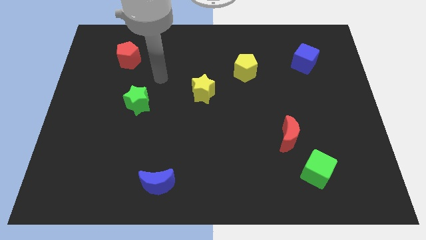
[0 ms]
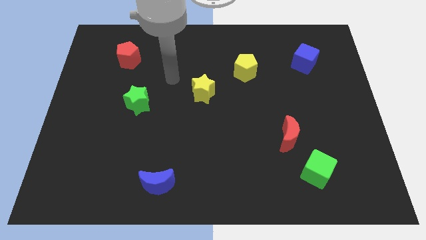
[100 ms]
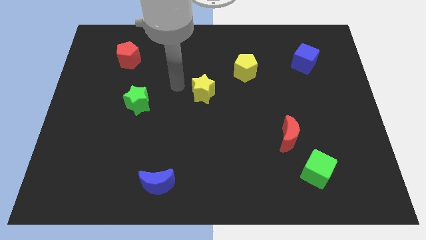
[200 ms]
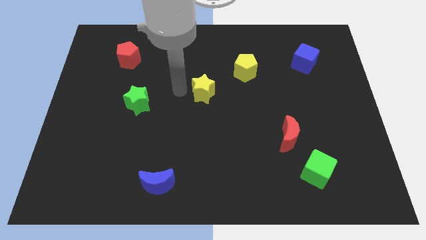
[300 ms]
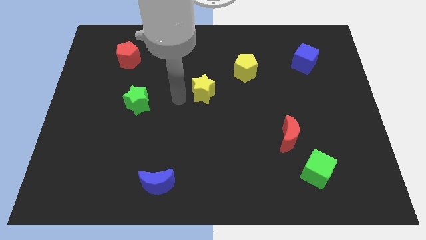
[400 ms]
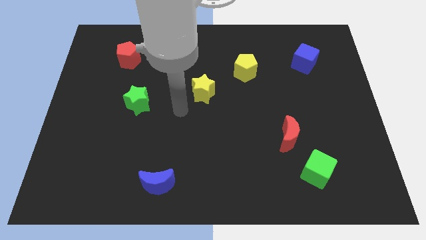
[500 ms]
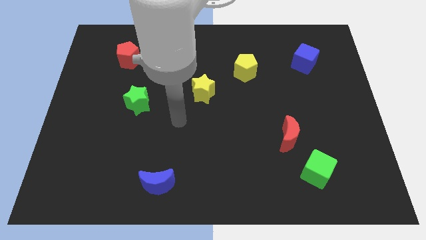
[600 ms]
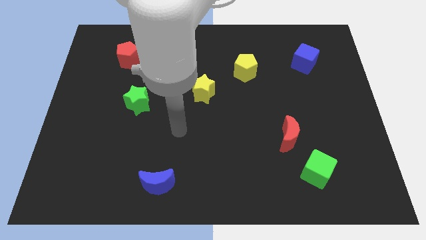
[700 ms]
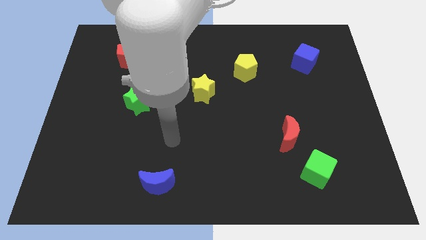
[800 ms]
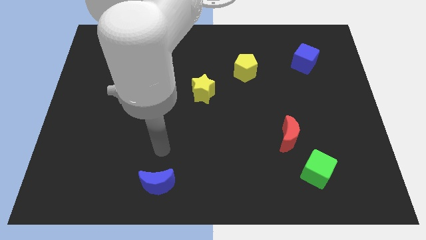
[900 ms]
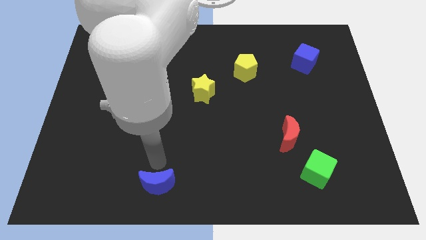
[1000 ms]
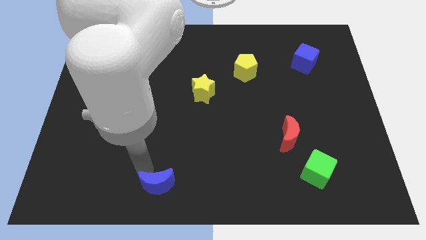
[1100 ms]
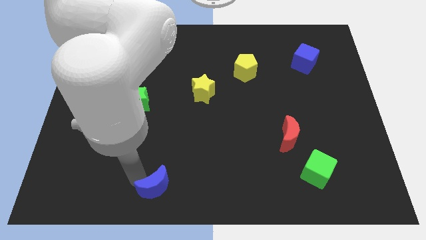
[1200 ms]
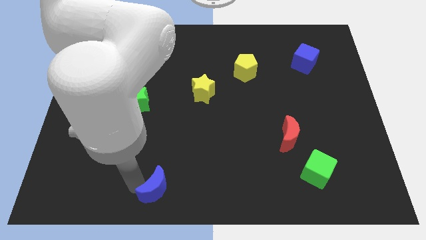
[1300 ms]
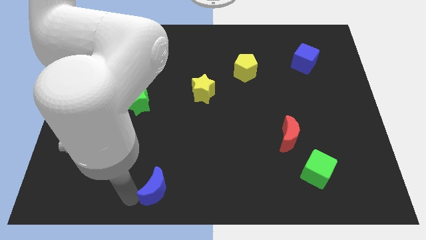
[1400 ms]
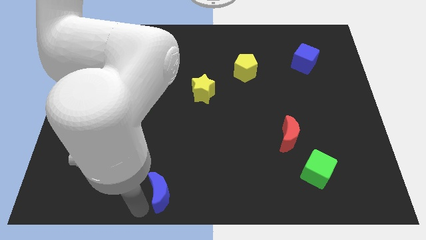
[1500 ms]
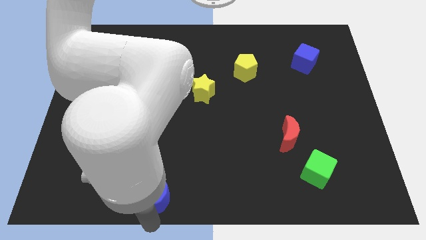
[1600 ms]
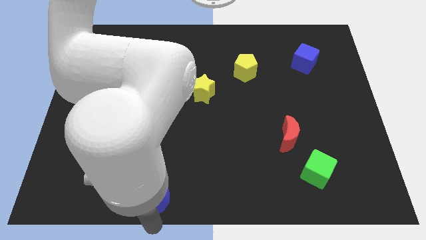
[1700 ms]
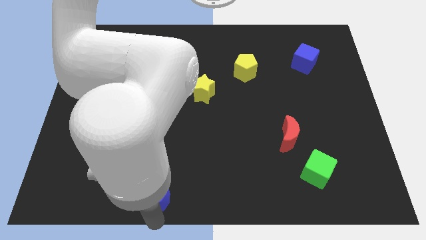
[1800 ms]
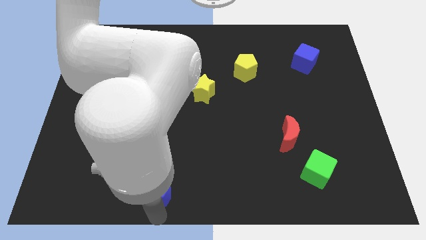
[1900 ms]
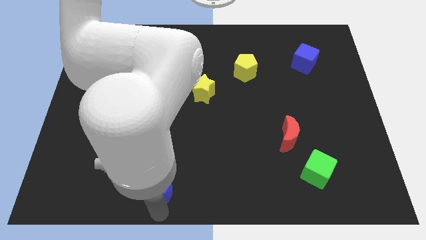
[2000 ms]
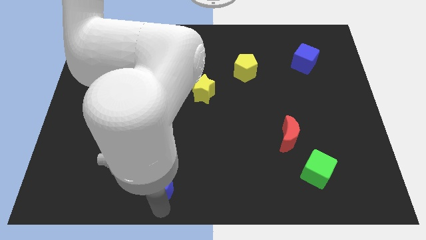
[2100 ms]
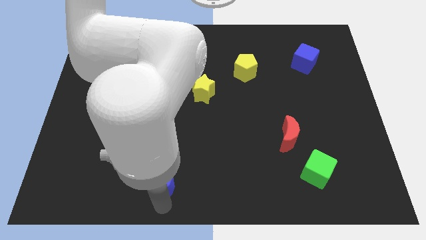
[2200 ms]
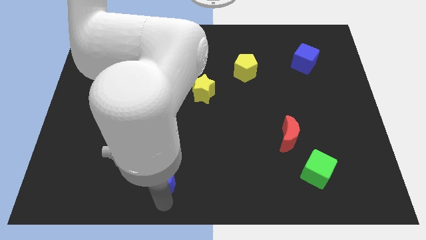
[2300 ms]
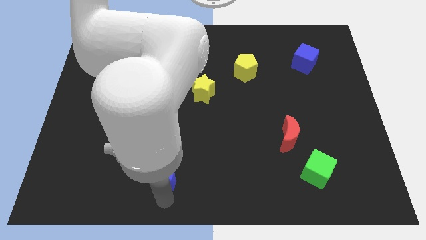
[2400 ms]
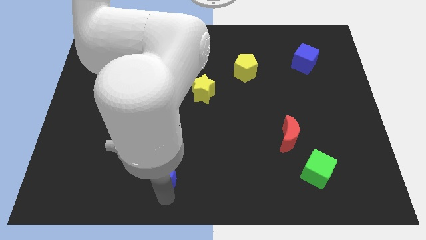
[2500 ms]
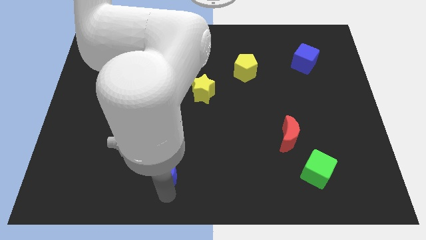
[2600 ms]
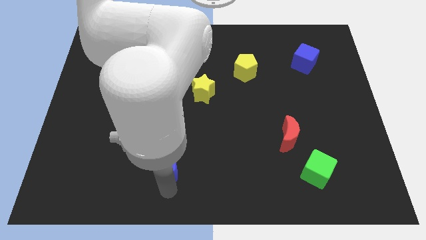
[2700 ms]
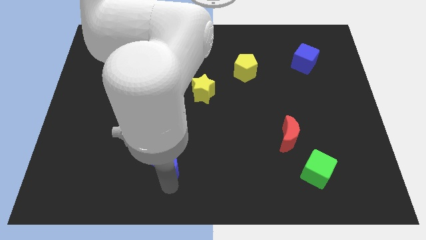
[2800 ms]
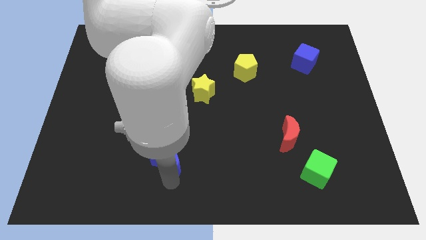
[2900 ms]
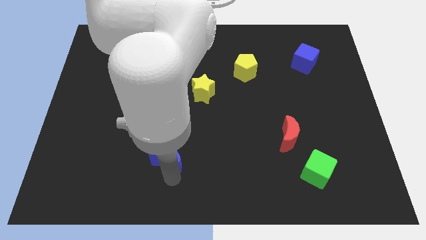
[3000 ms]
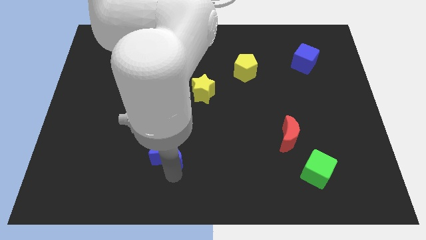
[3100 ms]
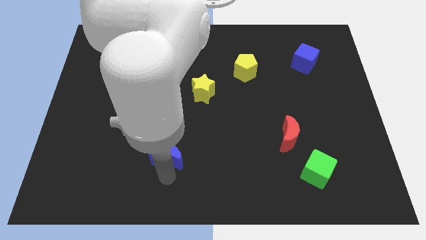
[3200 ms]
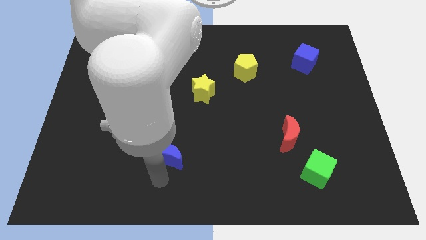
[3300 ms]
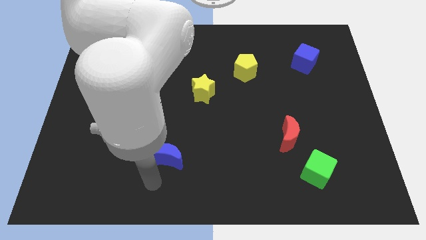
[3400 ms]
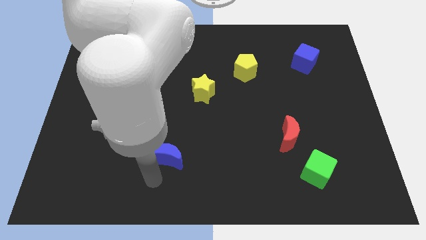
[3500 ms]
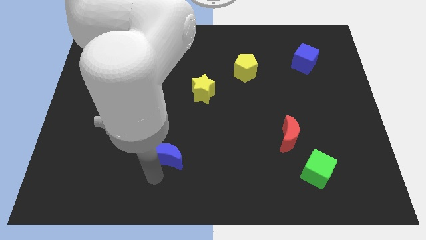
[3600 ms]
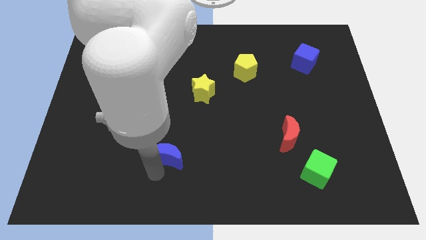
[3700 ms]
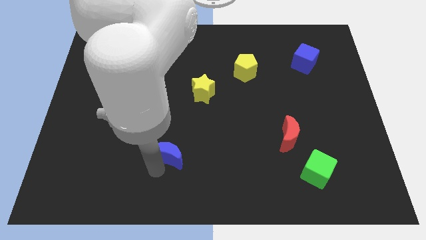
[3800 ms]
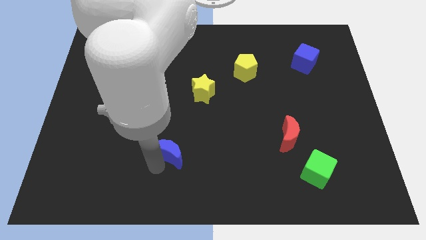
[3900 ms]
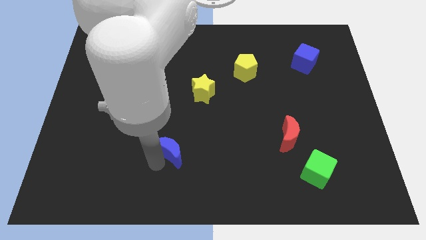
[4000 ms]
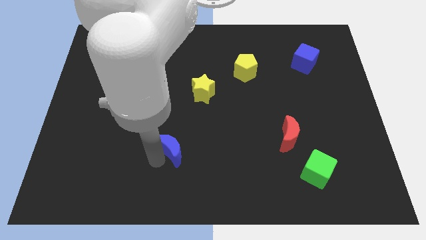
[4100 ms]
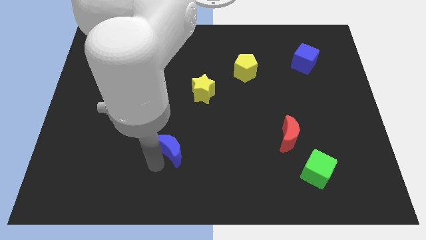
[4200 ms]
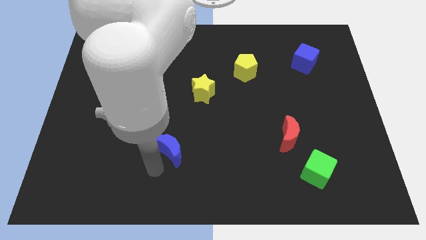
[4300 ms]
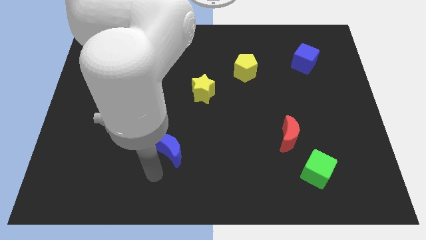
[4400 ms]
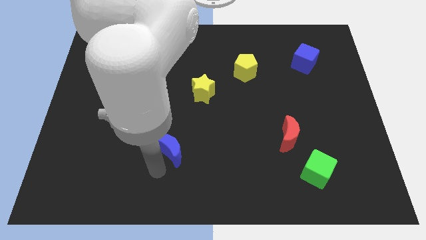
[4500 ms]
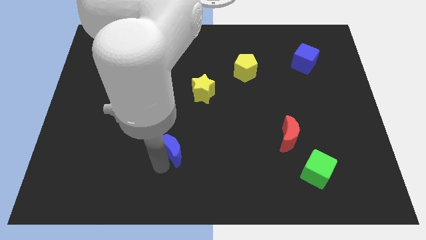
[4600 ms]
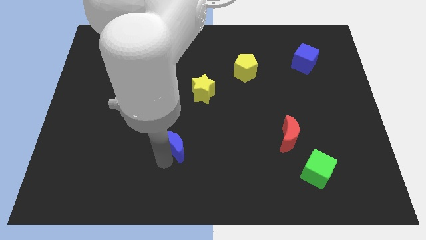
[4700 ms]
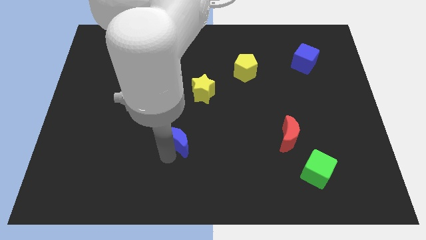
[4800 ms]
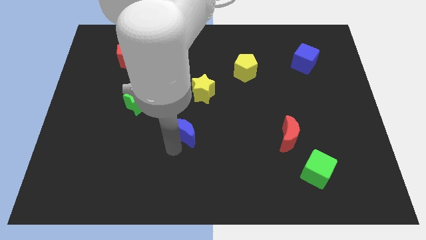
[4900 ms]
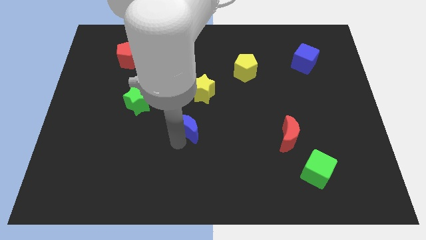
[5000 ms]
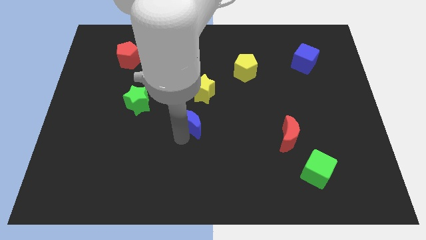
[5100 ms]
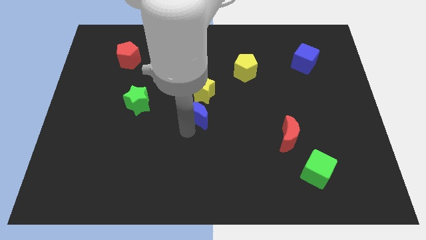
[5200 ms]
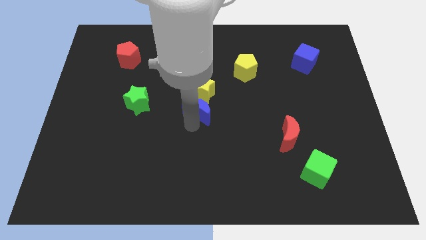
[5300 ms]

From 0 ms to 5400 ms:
put the blue moon next to the yellow star

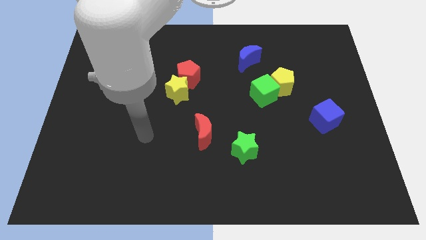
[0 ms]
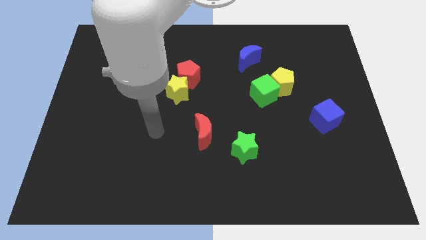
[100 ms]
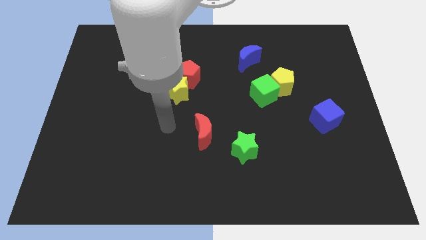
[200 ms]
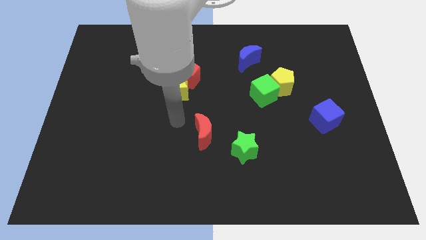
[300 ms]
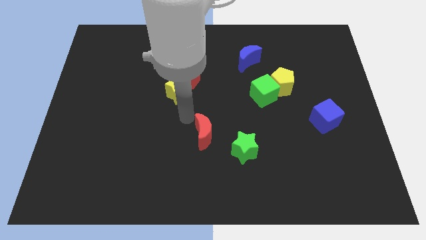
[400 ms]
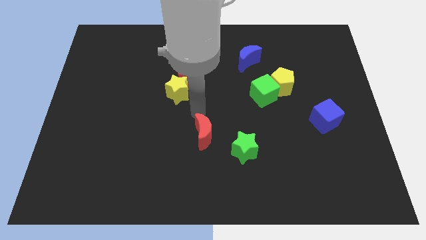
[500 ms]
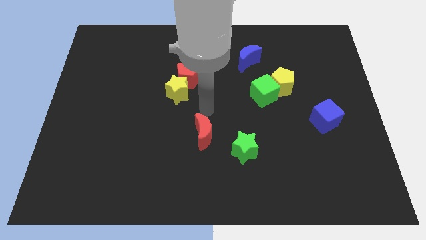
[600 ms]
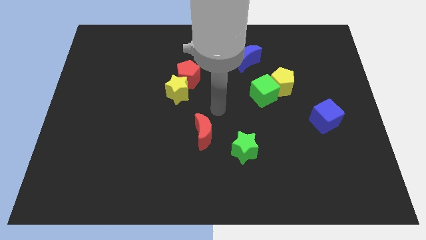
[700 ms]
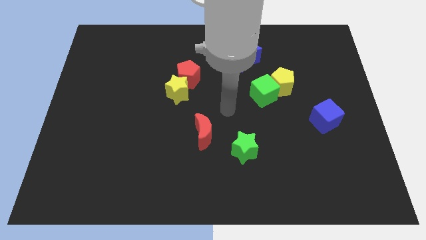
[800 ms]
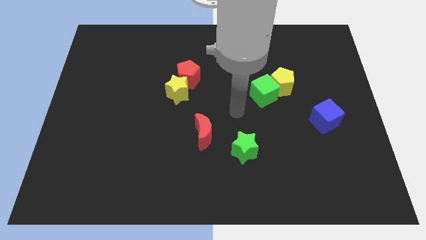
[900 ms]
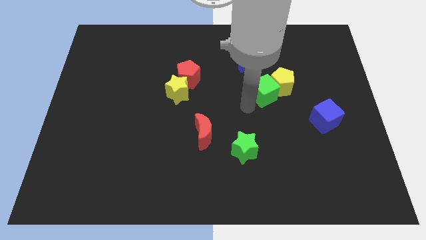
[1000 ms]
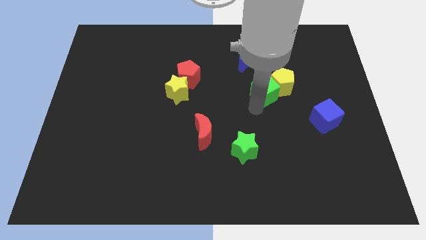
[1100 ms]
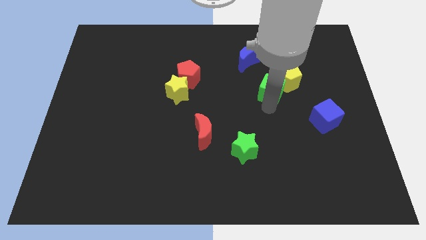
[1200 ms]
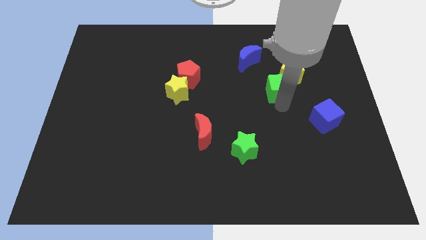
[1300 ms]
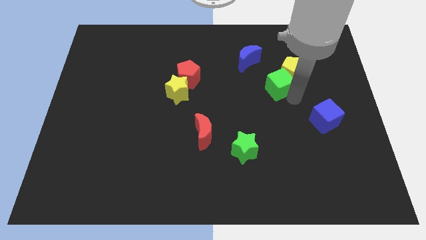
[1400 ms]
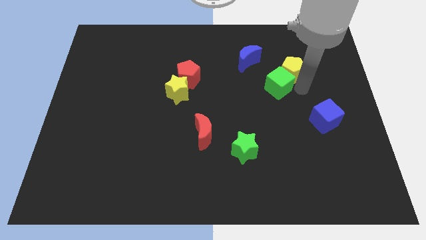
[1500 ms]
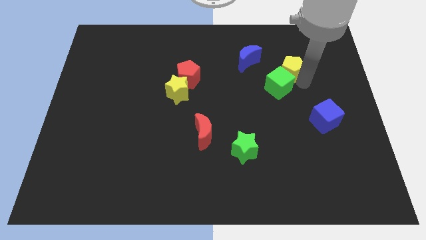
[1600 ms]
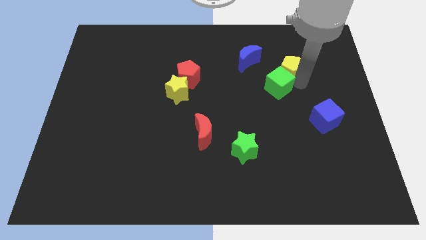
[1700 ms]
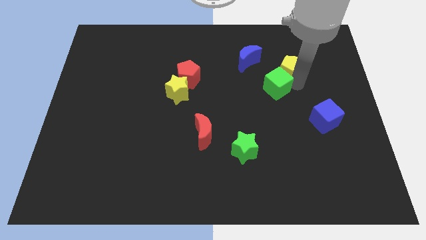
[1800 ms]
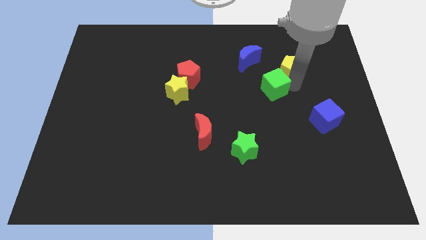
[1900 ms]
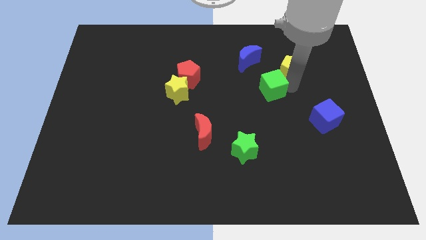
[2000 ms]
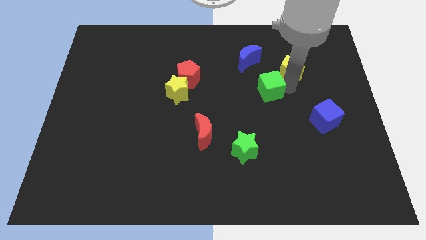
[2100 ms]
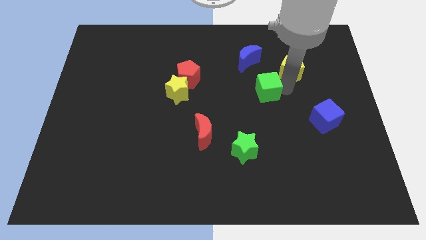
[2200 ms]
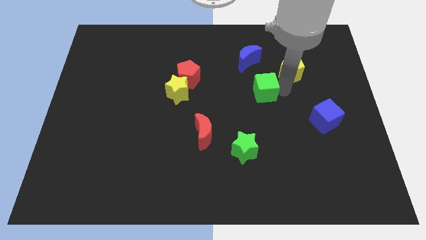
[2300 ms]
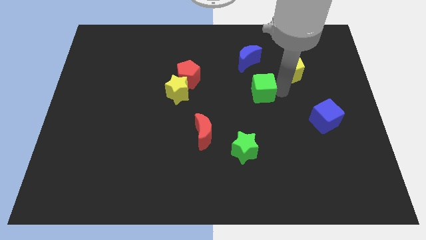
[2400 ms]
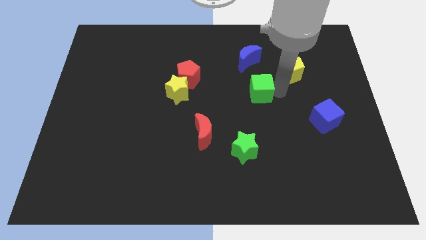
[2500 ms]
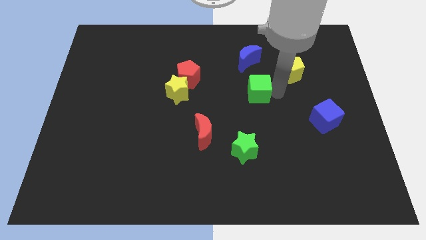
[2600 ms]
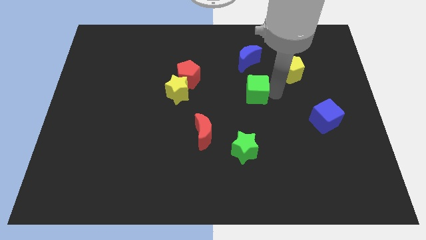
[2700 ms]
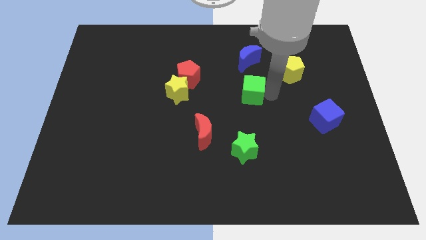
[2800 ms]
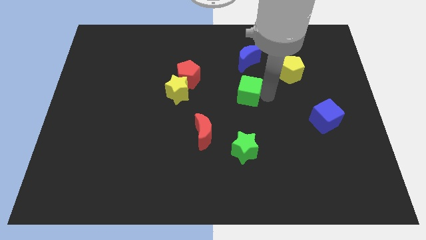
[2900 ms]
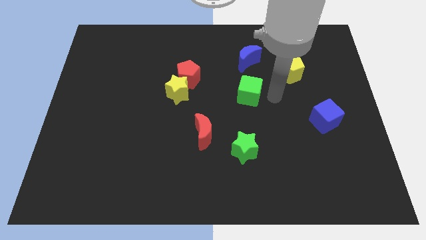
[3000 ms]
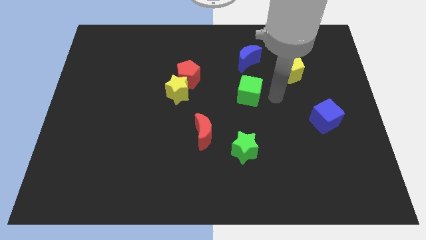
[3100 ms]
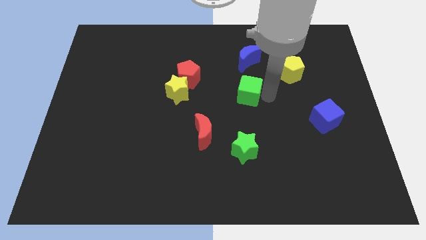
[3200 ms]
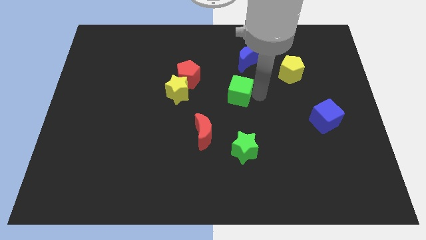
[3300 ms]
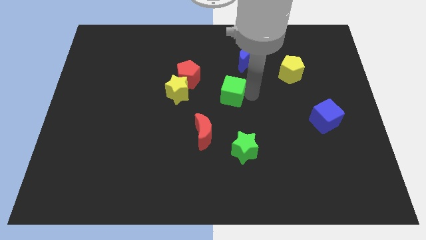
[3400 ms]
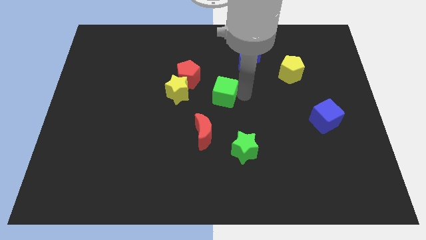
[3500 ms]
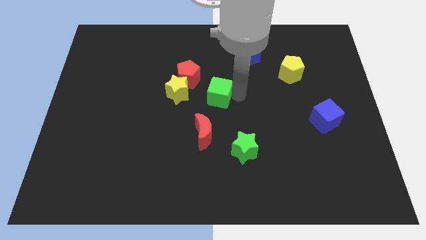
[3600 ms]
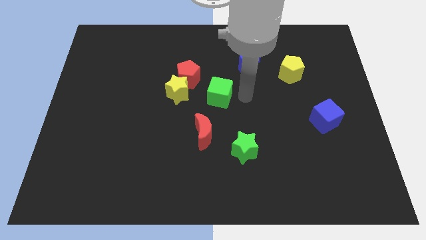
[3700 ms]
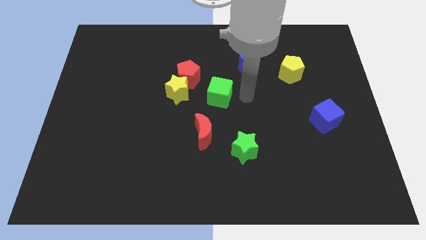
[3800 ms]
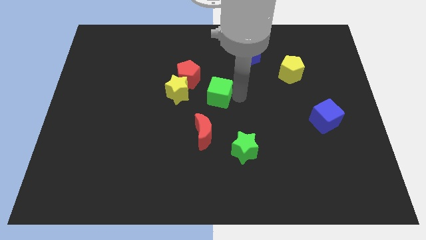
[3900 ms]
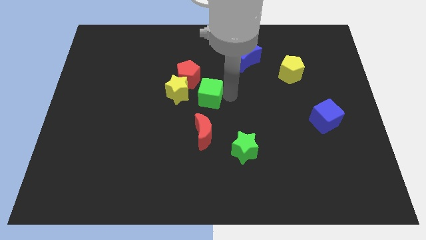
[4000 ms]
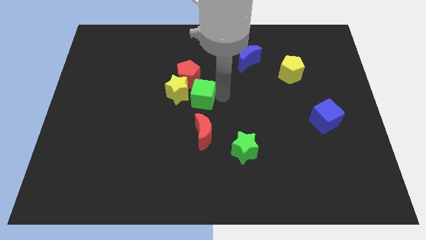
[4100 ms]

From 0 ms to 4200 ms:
move the green cube to the yellow star
